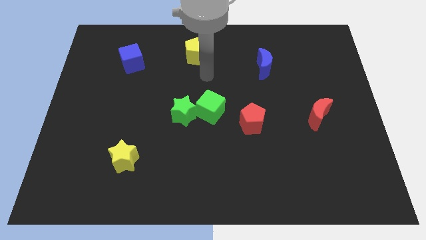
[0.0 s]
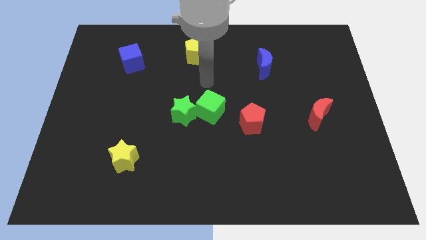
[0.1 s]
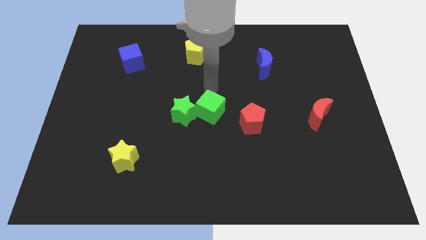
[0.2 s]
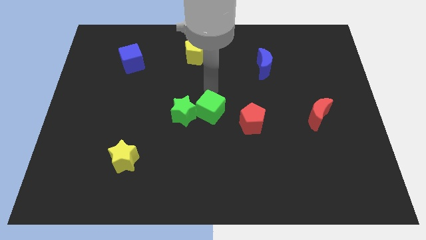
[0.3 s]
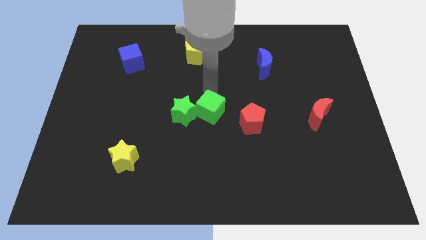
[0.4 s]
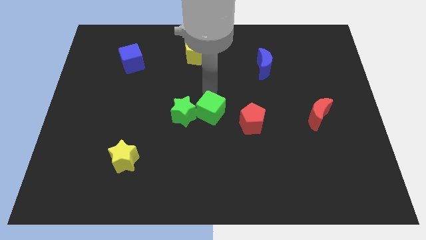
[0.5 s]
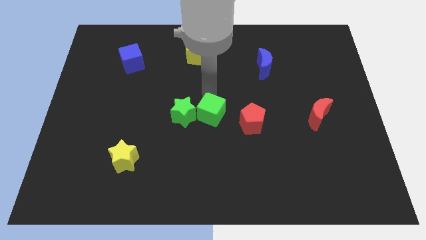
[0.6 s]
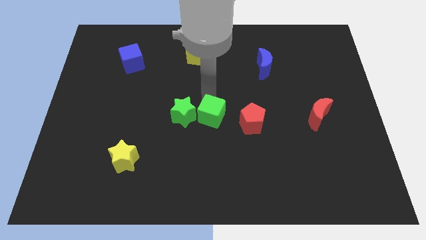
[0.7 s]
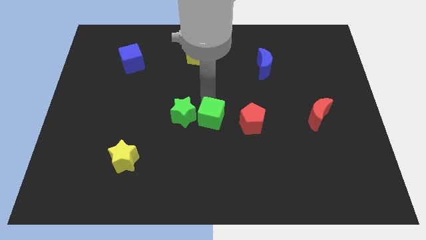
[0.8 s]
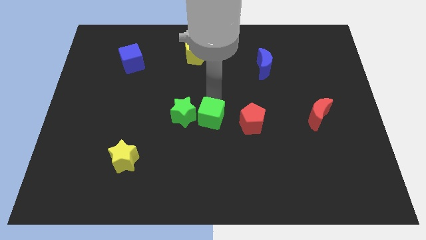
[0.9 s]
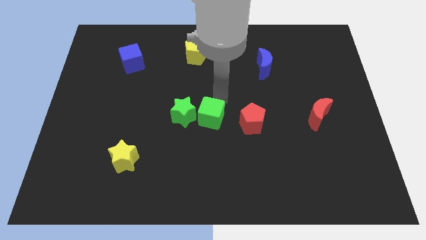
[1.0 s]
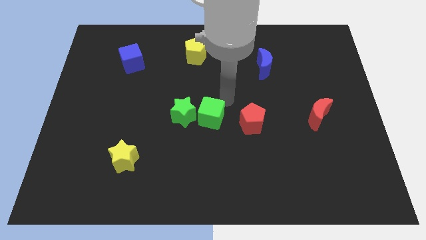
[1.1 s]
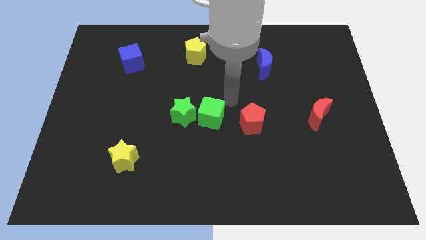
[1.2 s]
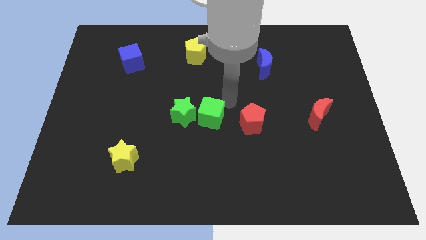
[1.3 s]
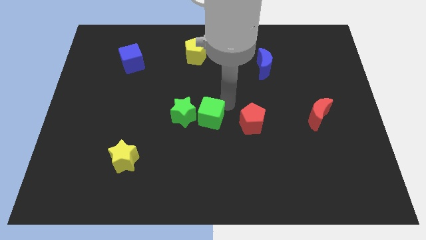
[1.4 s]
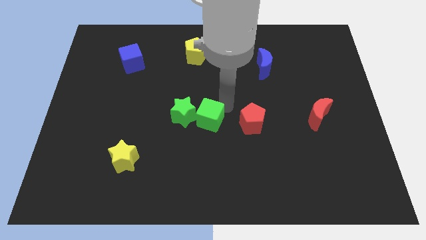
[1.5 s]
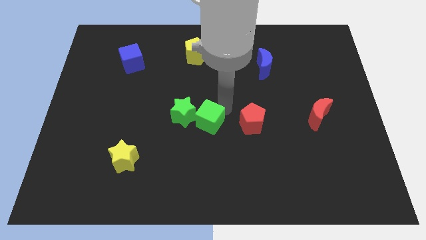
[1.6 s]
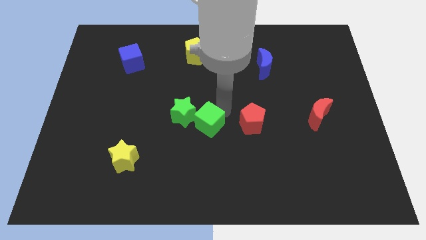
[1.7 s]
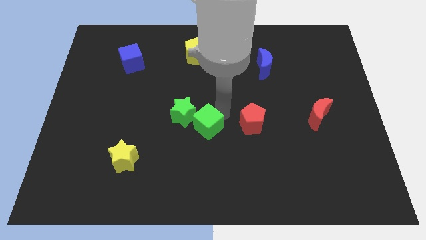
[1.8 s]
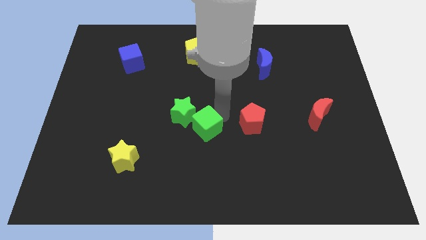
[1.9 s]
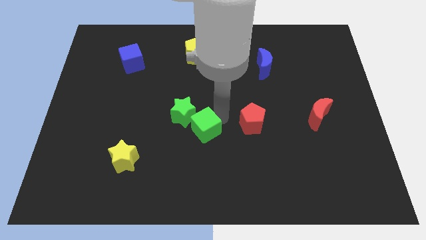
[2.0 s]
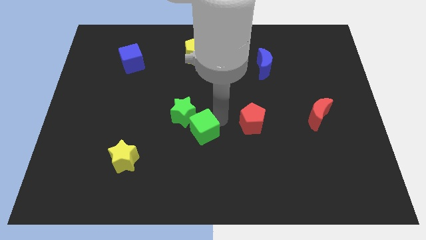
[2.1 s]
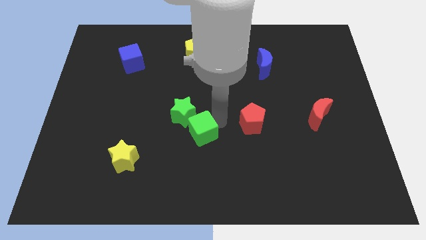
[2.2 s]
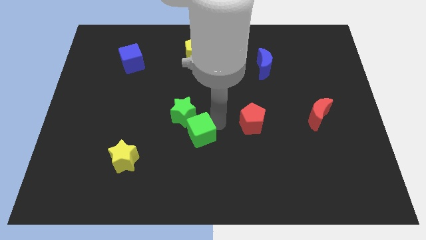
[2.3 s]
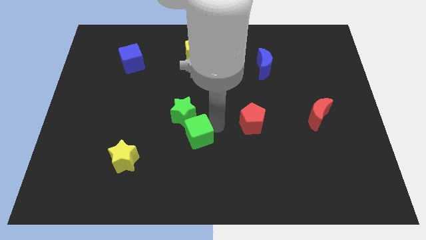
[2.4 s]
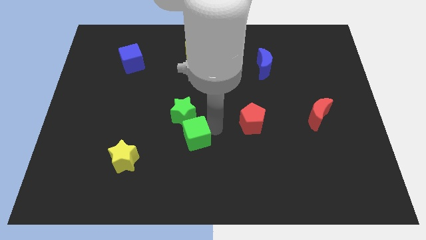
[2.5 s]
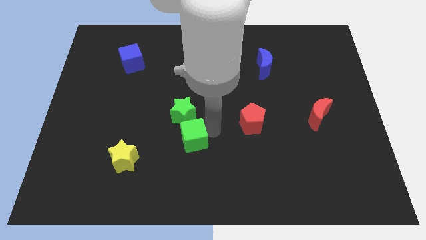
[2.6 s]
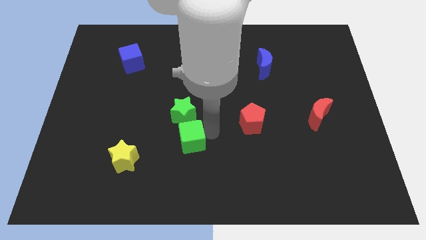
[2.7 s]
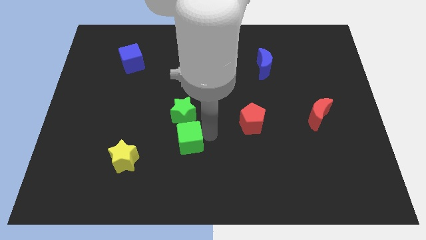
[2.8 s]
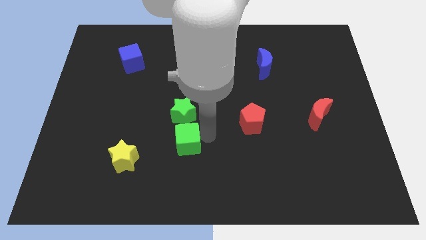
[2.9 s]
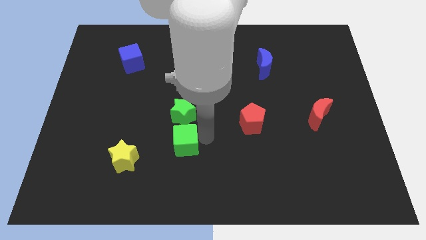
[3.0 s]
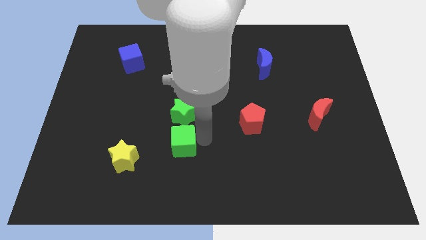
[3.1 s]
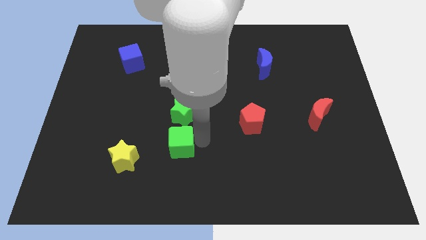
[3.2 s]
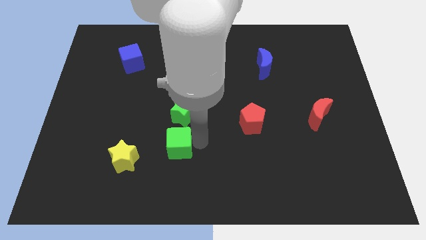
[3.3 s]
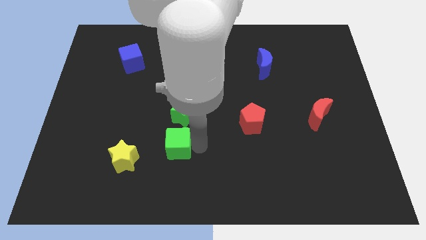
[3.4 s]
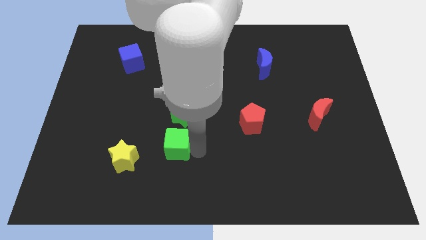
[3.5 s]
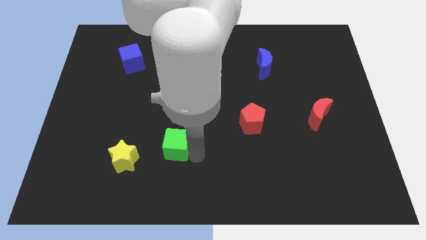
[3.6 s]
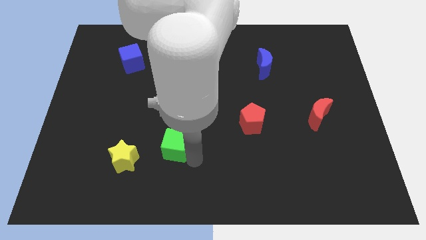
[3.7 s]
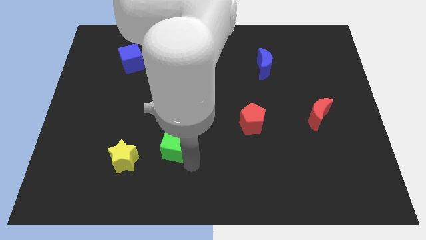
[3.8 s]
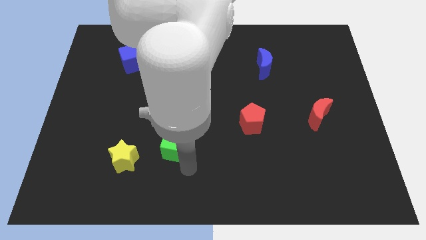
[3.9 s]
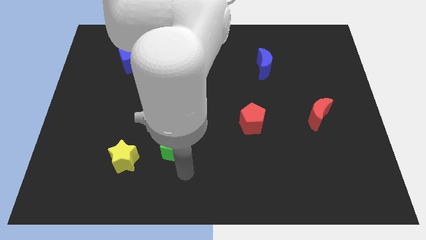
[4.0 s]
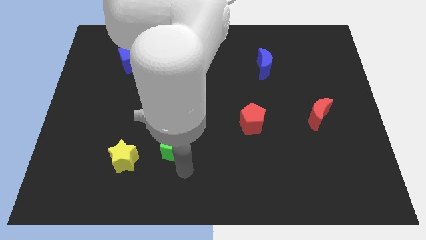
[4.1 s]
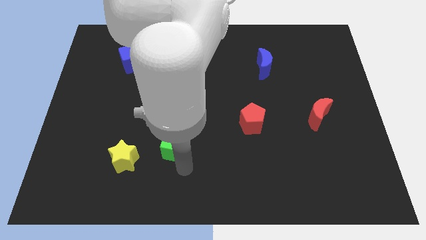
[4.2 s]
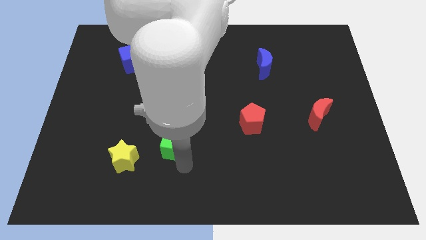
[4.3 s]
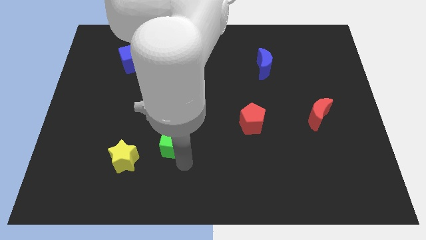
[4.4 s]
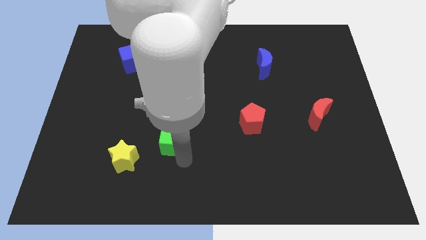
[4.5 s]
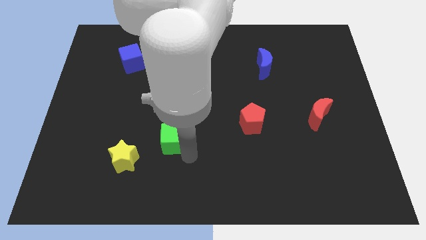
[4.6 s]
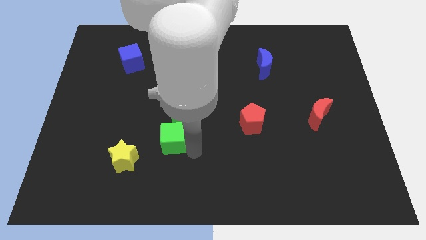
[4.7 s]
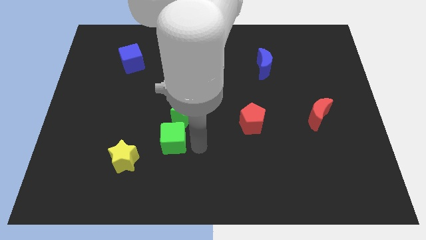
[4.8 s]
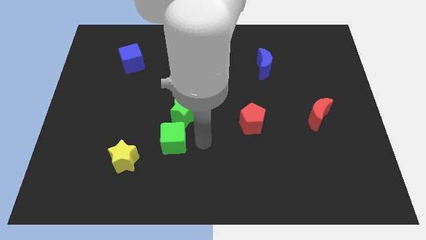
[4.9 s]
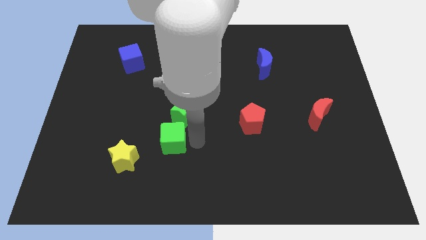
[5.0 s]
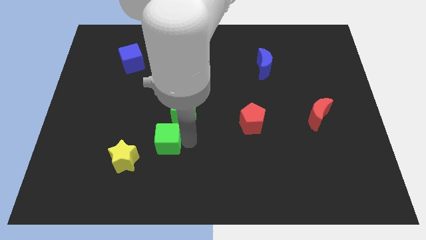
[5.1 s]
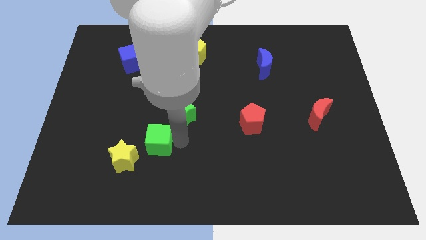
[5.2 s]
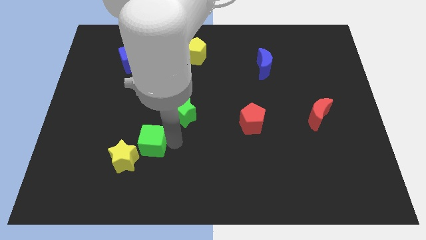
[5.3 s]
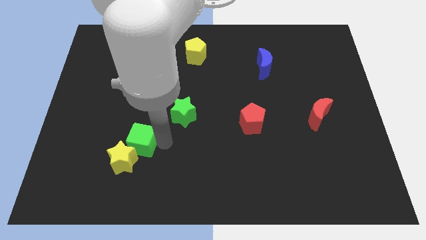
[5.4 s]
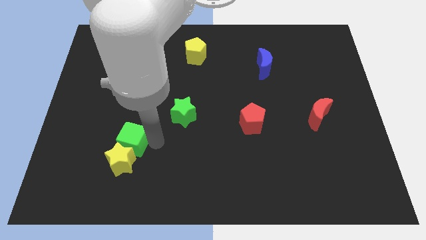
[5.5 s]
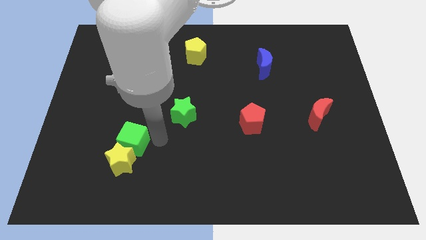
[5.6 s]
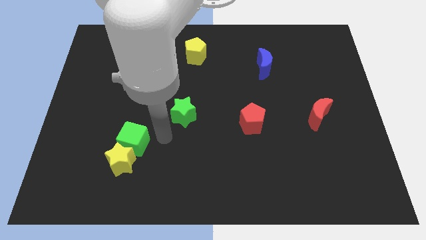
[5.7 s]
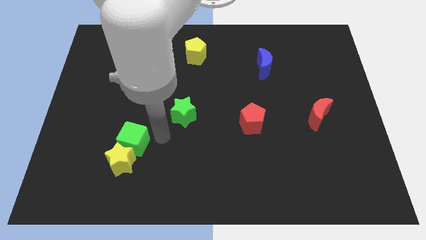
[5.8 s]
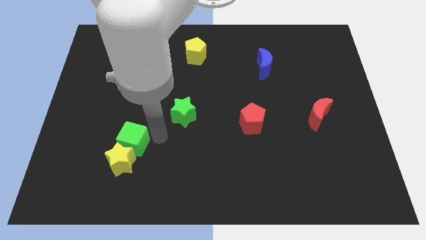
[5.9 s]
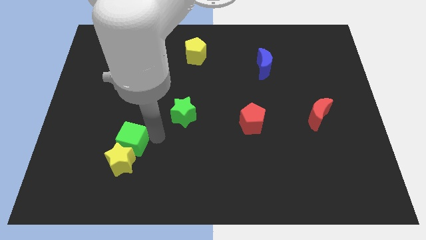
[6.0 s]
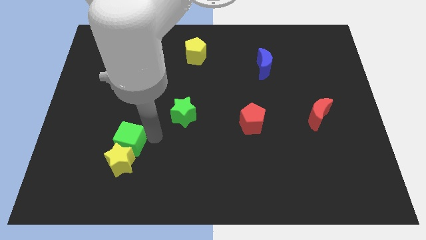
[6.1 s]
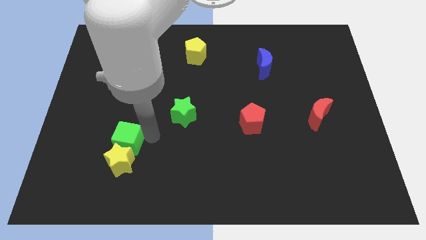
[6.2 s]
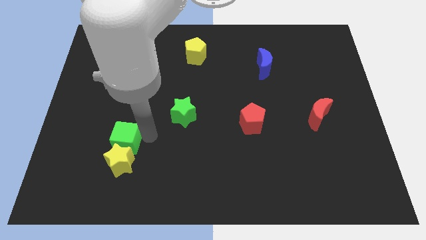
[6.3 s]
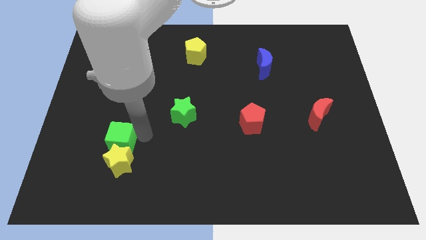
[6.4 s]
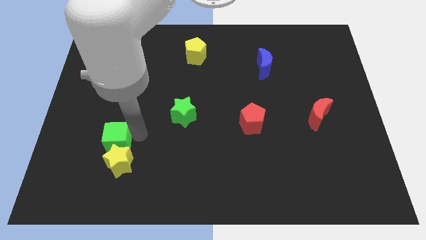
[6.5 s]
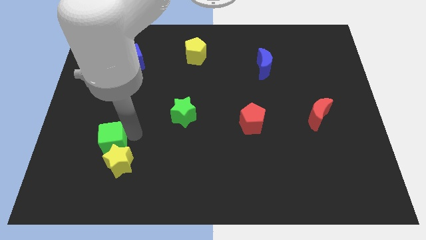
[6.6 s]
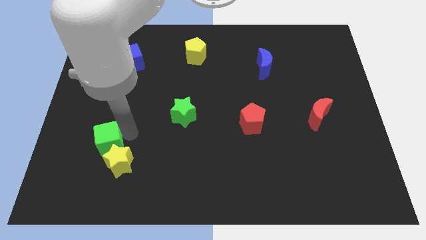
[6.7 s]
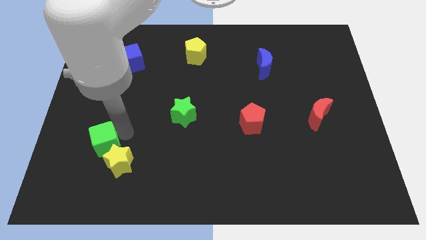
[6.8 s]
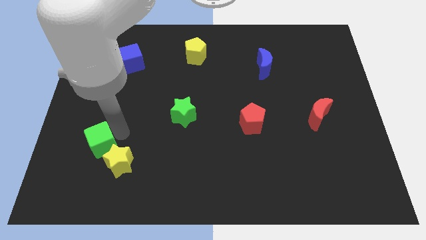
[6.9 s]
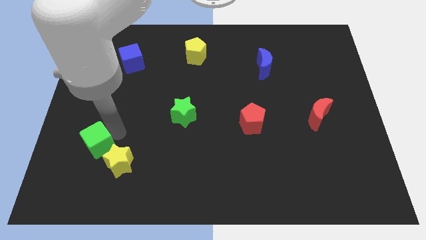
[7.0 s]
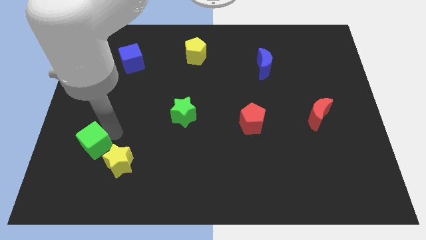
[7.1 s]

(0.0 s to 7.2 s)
put the green cube left of the yellow star

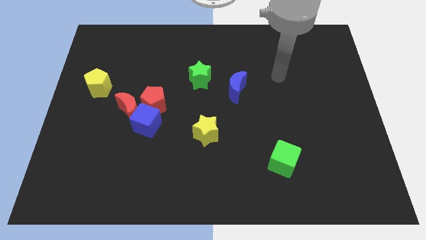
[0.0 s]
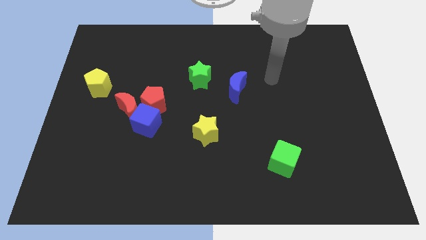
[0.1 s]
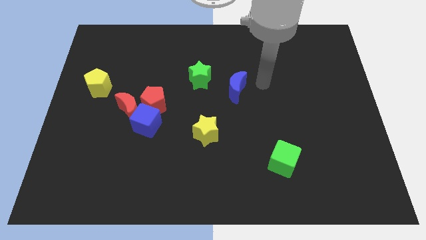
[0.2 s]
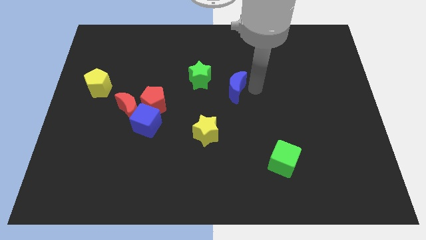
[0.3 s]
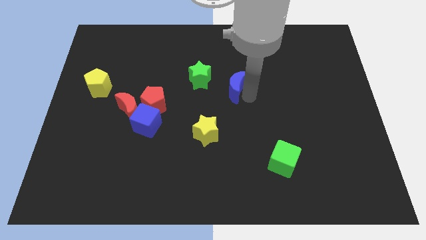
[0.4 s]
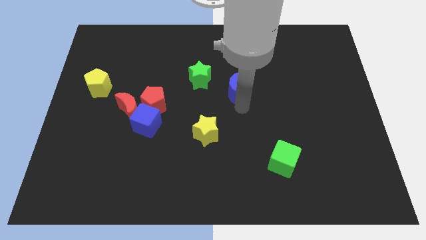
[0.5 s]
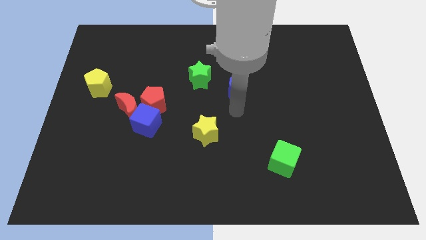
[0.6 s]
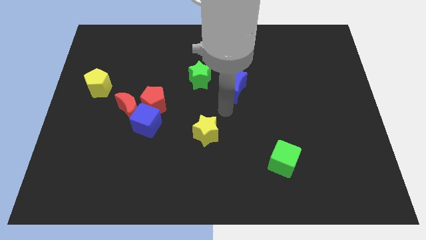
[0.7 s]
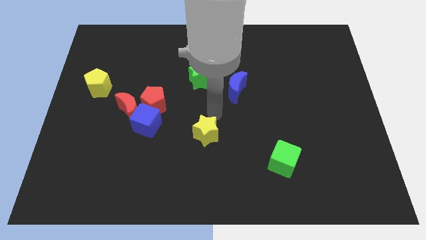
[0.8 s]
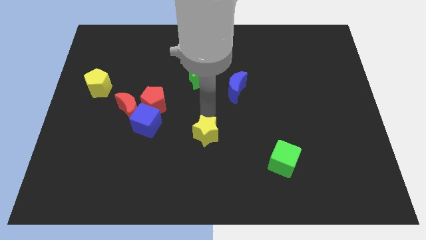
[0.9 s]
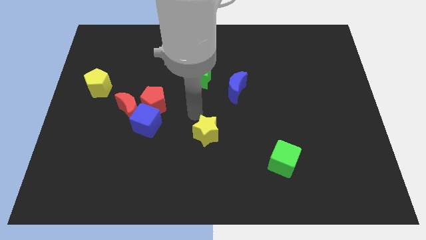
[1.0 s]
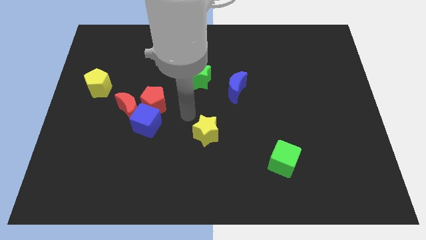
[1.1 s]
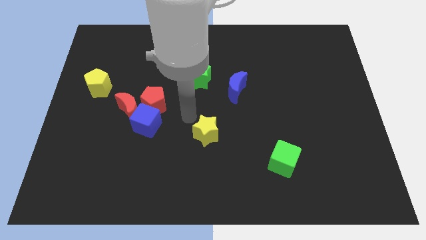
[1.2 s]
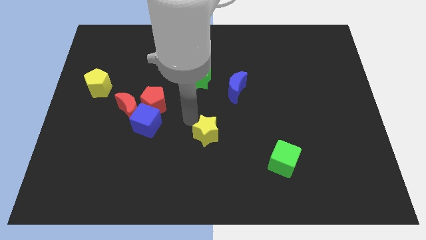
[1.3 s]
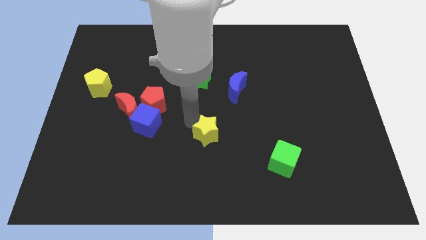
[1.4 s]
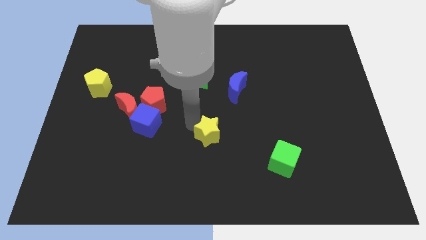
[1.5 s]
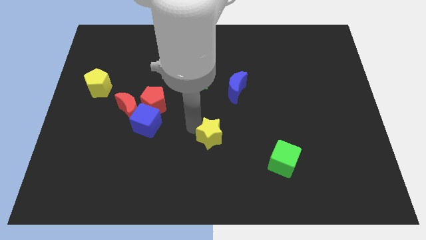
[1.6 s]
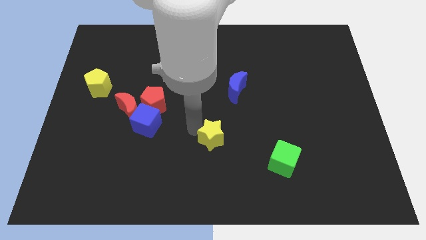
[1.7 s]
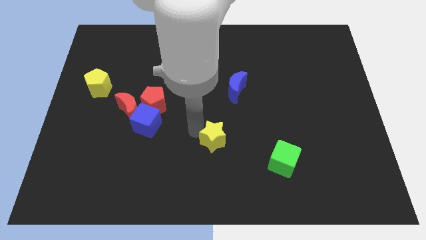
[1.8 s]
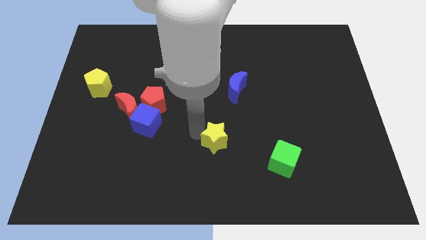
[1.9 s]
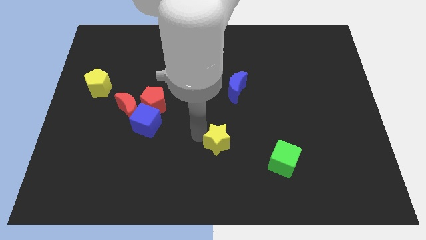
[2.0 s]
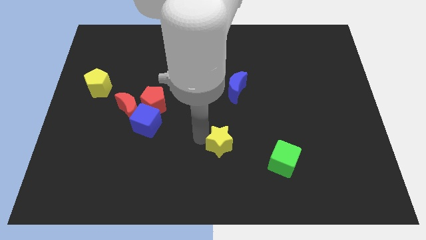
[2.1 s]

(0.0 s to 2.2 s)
slide the yellow star just left of the green cube
